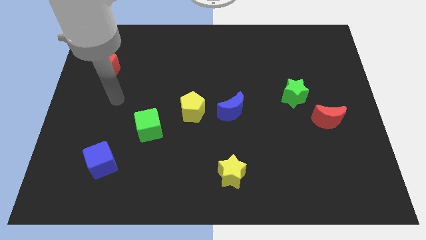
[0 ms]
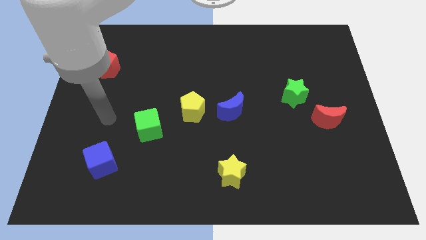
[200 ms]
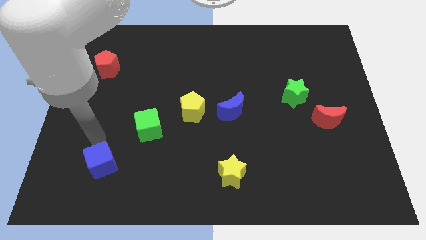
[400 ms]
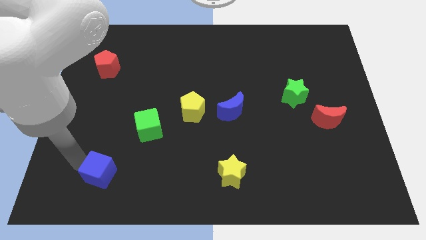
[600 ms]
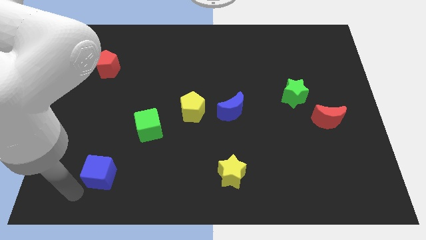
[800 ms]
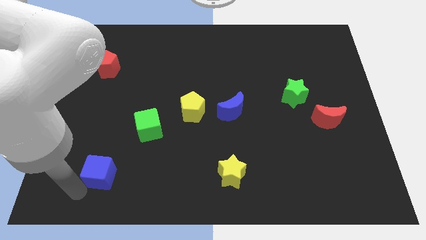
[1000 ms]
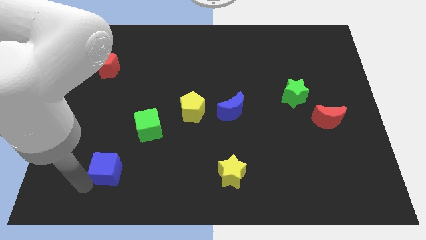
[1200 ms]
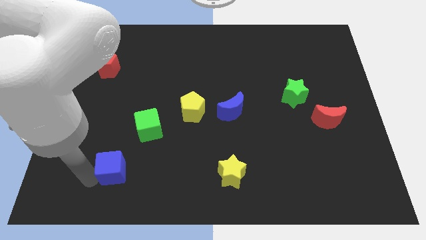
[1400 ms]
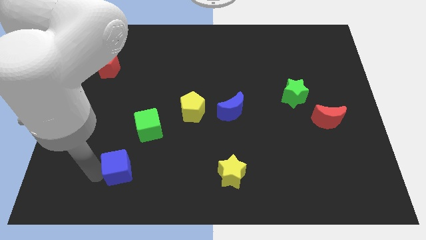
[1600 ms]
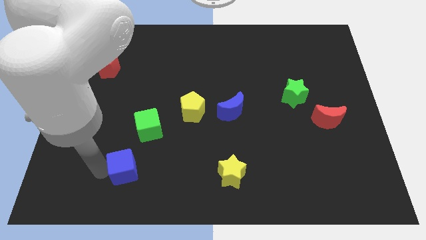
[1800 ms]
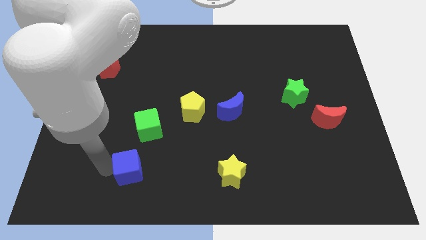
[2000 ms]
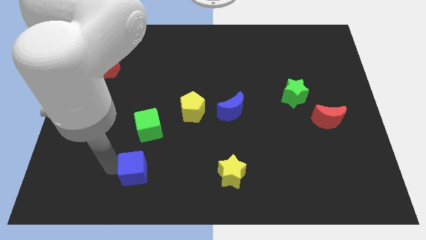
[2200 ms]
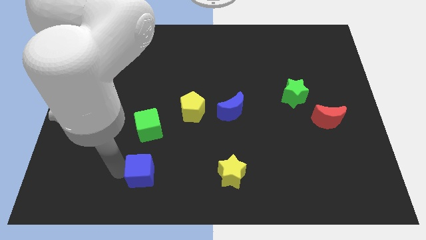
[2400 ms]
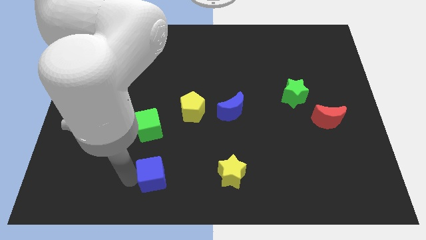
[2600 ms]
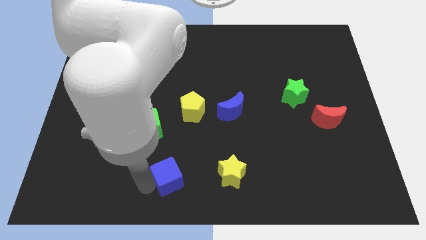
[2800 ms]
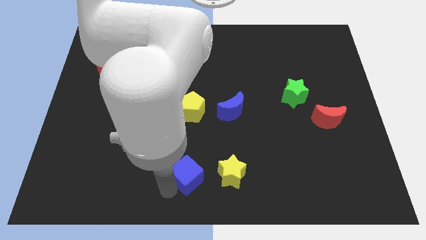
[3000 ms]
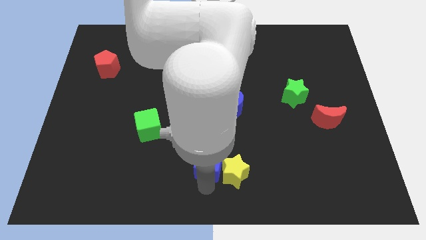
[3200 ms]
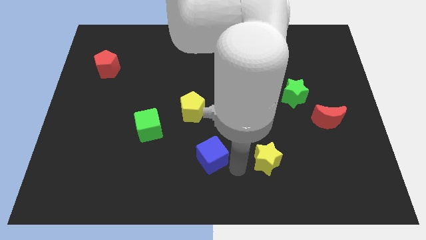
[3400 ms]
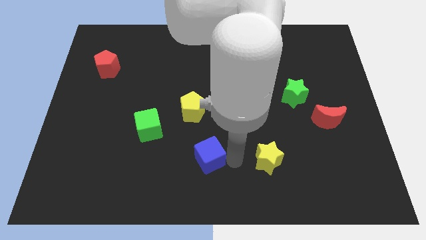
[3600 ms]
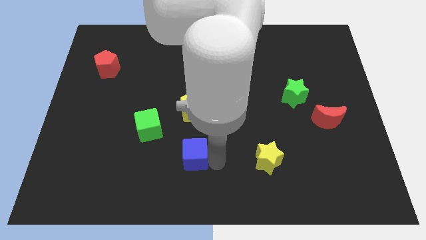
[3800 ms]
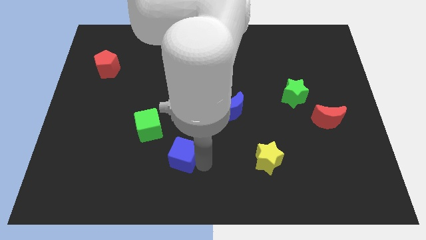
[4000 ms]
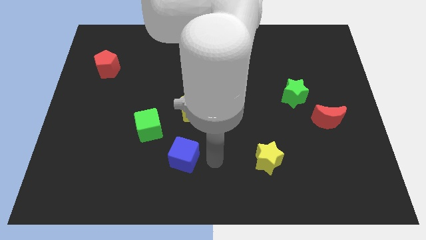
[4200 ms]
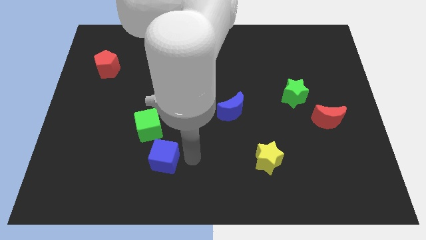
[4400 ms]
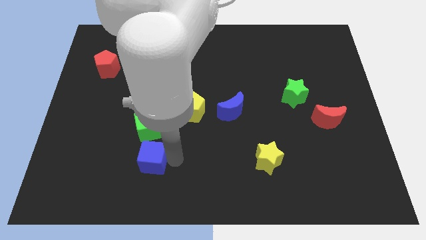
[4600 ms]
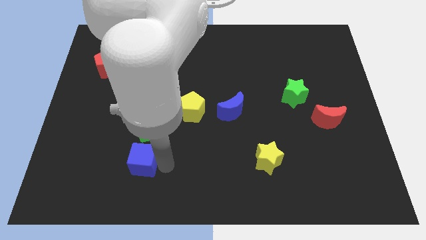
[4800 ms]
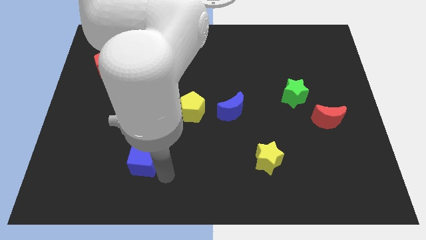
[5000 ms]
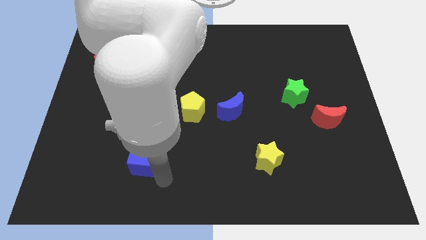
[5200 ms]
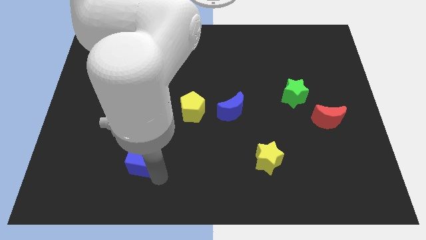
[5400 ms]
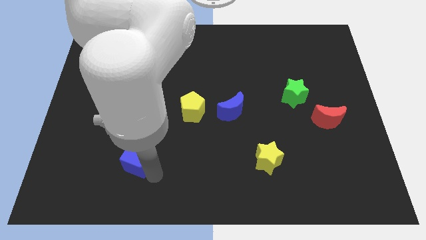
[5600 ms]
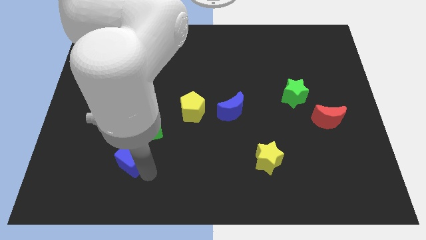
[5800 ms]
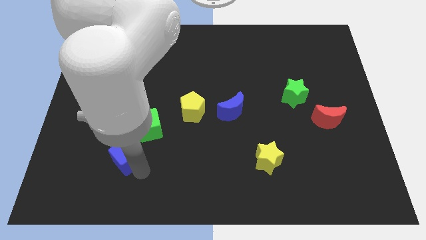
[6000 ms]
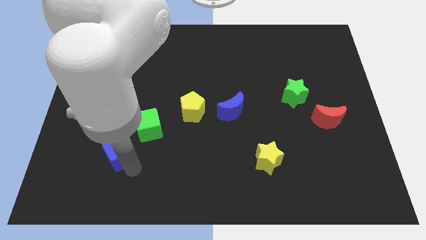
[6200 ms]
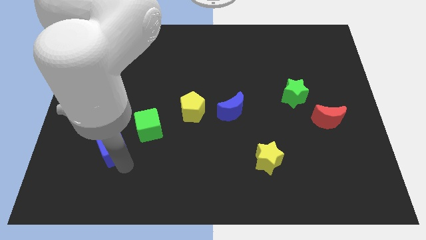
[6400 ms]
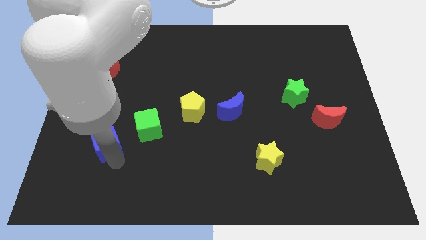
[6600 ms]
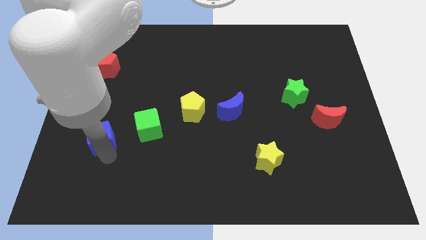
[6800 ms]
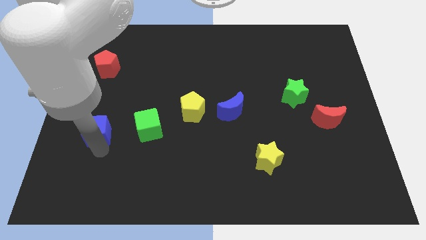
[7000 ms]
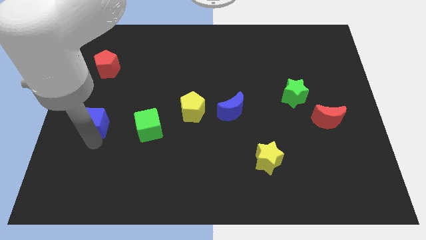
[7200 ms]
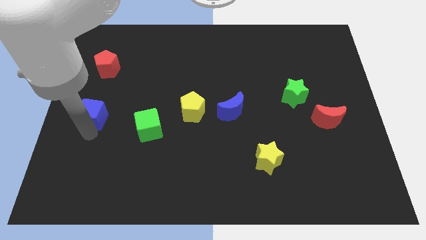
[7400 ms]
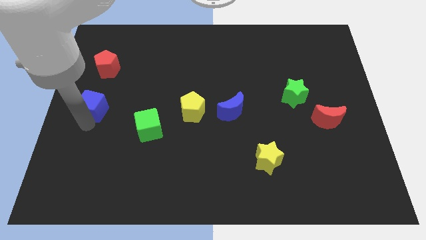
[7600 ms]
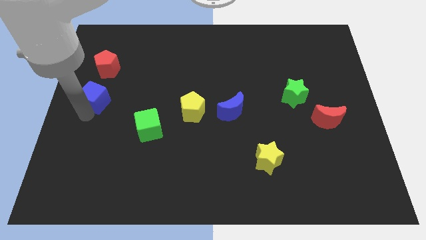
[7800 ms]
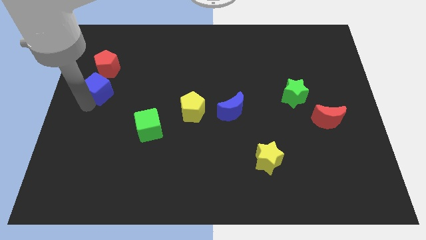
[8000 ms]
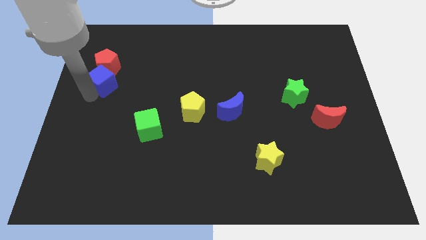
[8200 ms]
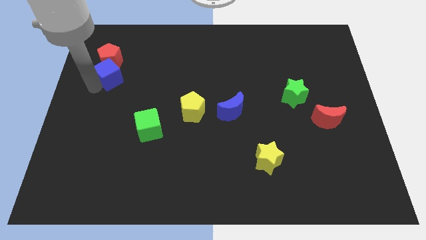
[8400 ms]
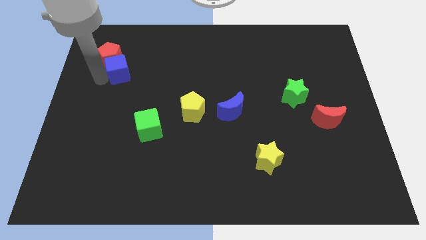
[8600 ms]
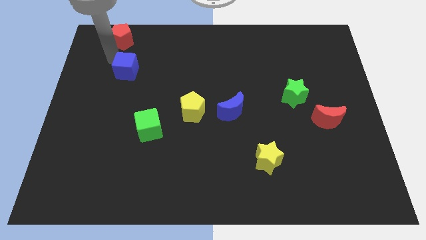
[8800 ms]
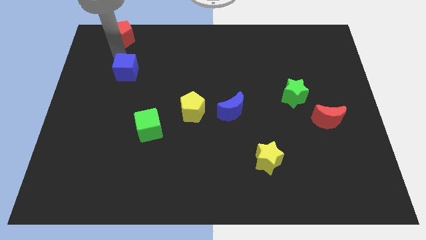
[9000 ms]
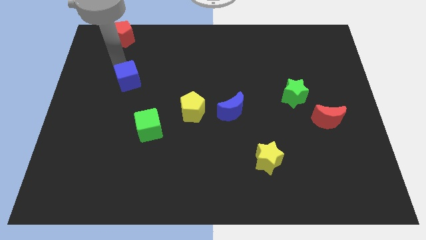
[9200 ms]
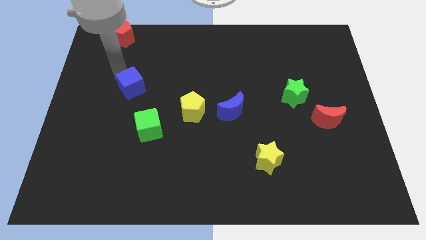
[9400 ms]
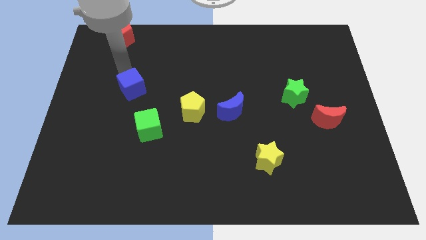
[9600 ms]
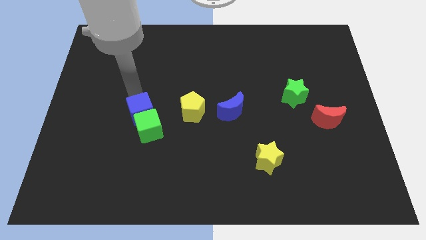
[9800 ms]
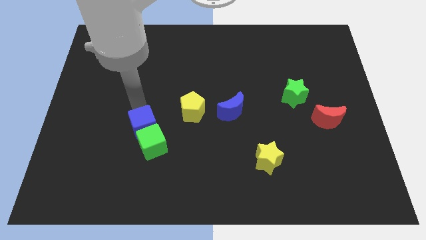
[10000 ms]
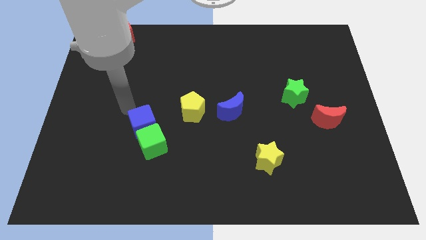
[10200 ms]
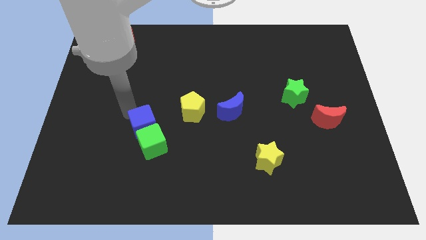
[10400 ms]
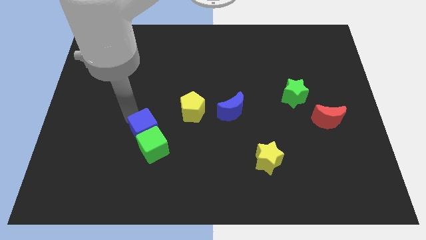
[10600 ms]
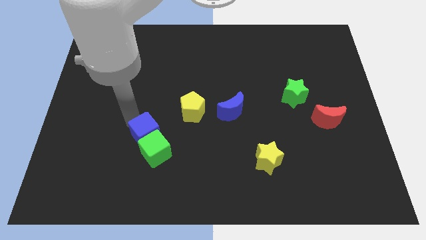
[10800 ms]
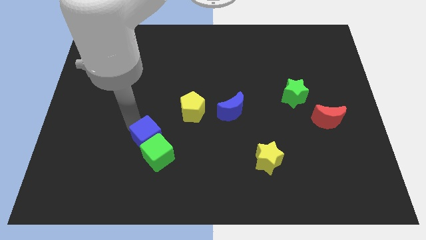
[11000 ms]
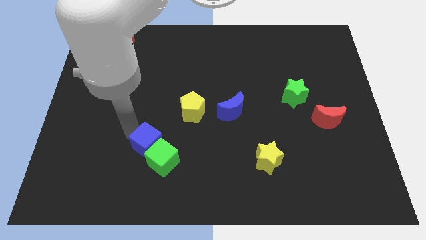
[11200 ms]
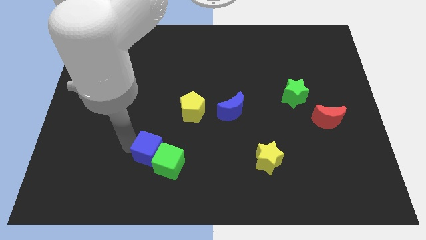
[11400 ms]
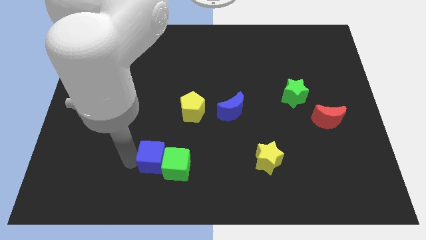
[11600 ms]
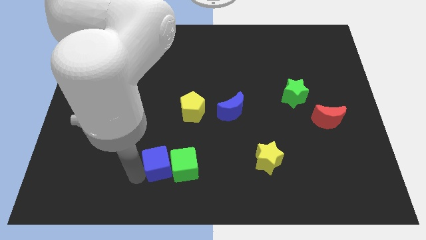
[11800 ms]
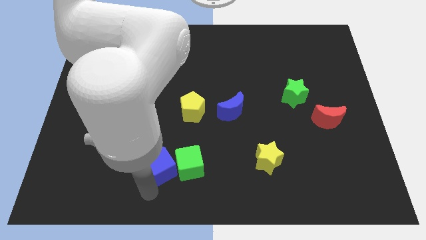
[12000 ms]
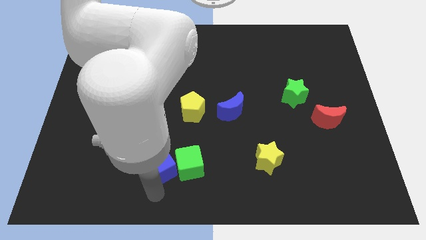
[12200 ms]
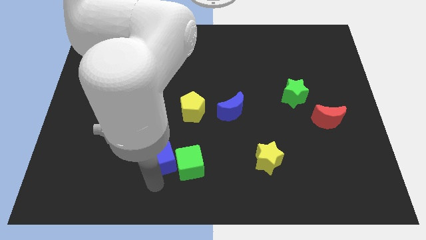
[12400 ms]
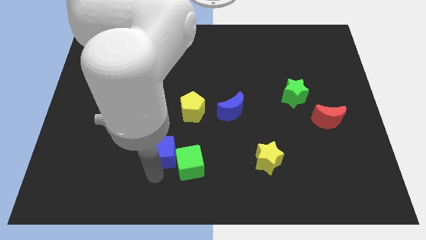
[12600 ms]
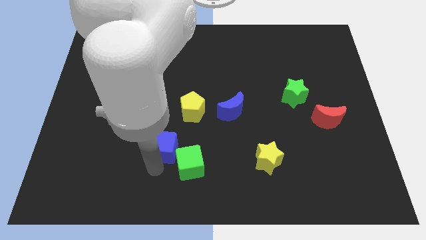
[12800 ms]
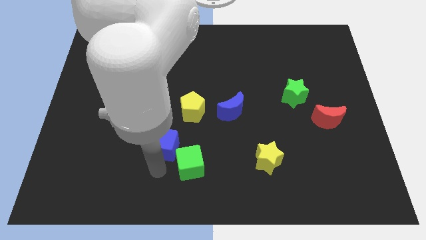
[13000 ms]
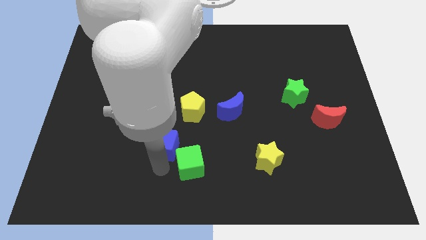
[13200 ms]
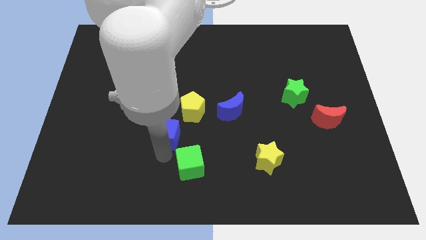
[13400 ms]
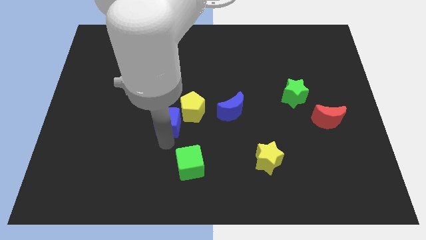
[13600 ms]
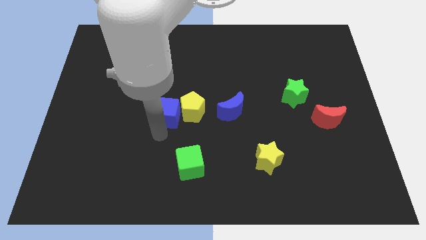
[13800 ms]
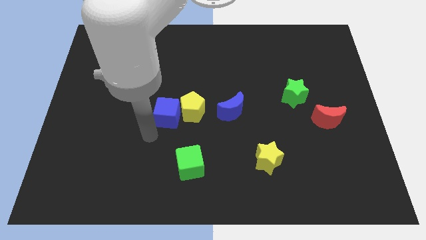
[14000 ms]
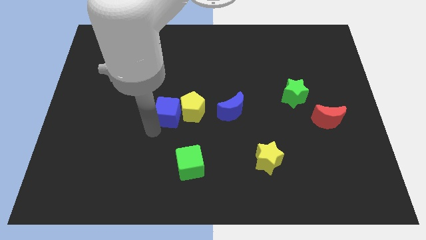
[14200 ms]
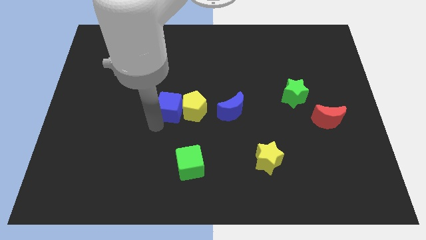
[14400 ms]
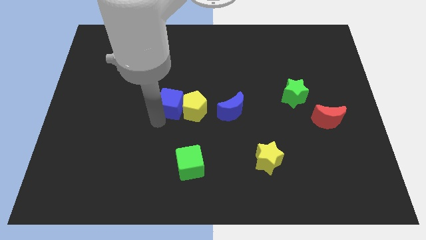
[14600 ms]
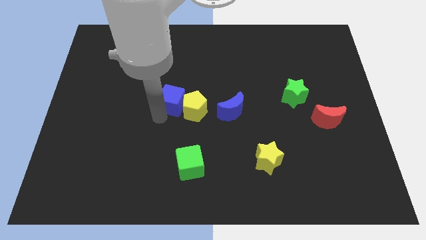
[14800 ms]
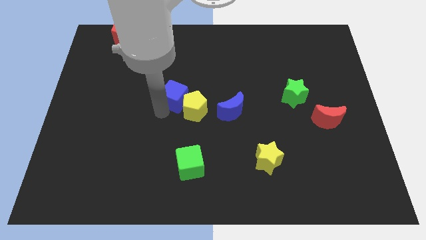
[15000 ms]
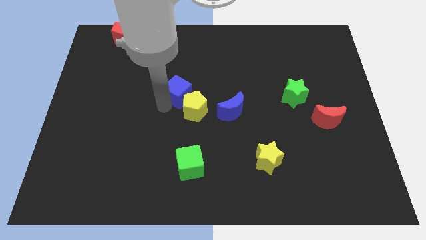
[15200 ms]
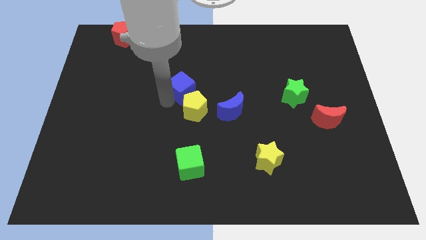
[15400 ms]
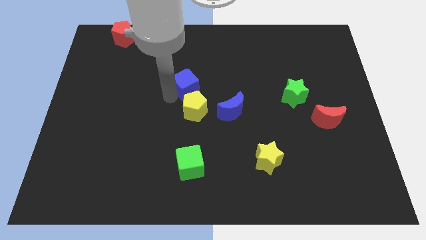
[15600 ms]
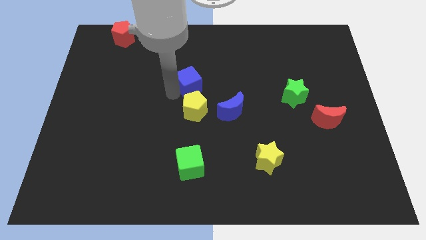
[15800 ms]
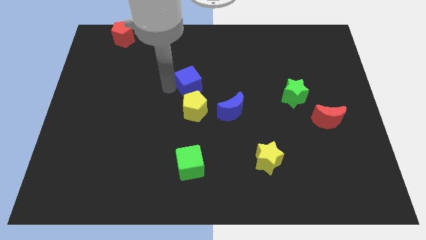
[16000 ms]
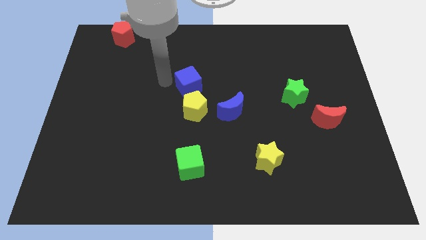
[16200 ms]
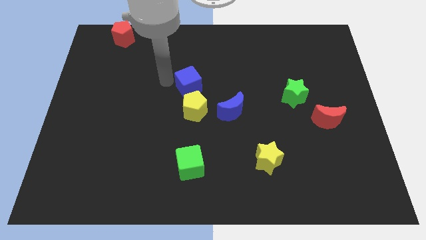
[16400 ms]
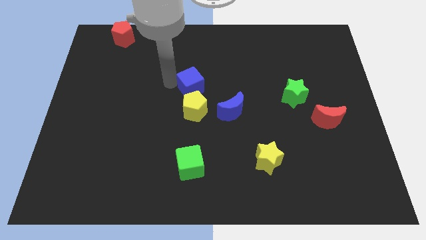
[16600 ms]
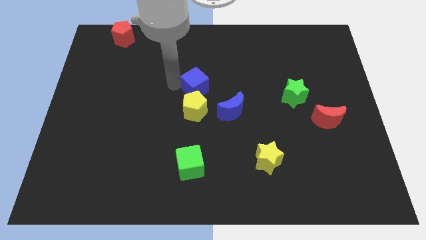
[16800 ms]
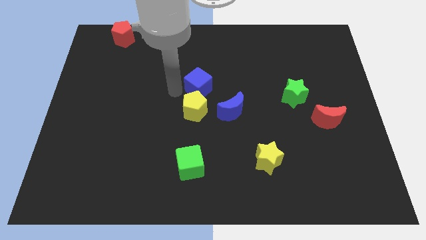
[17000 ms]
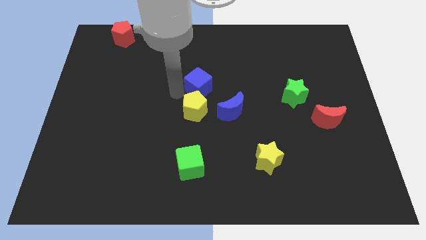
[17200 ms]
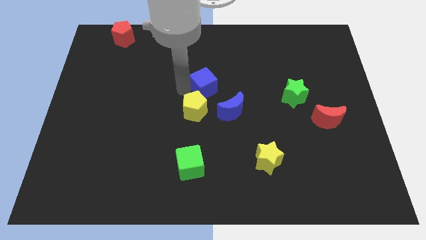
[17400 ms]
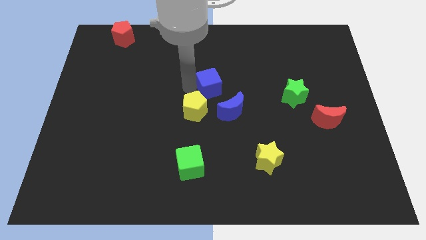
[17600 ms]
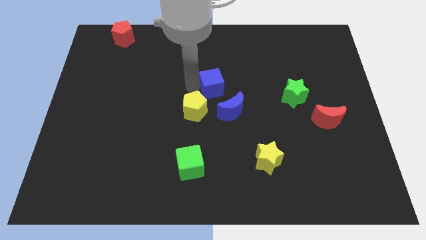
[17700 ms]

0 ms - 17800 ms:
slide the blue cube above the blue moon
